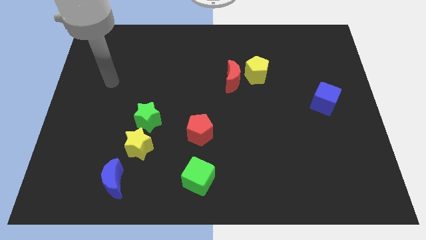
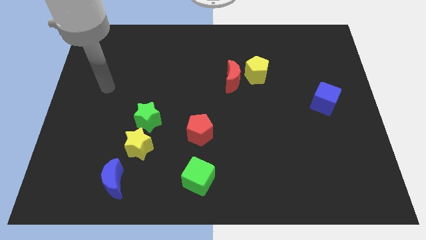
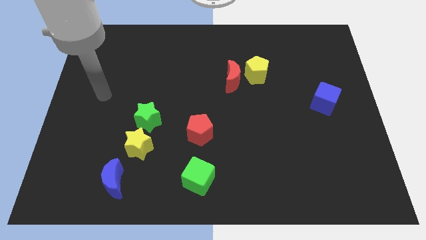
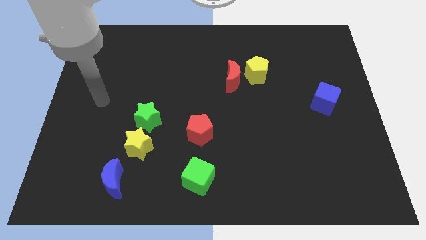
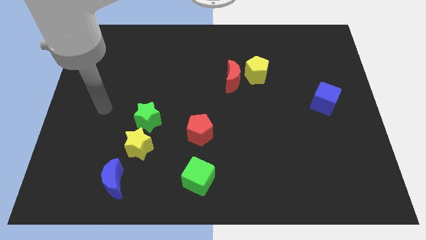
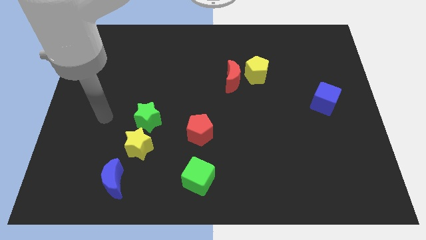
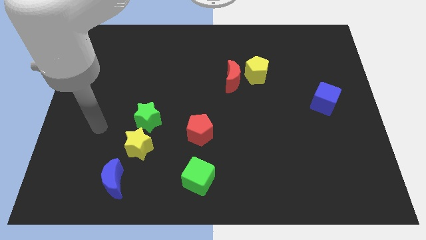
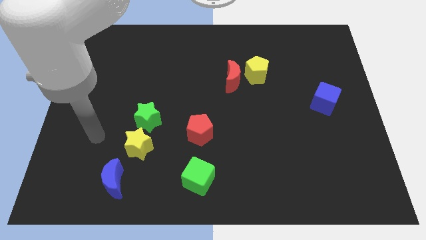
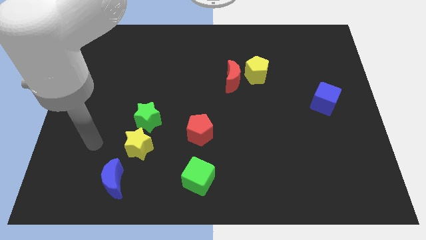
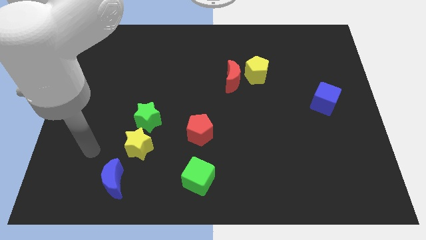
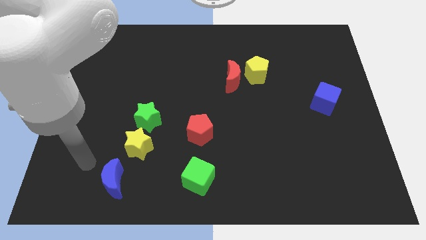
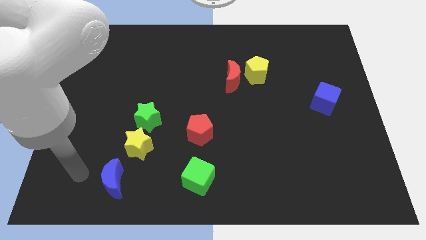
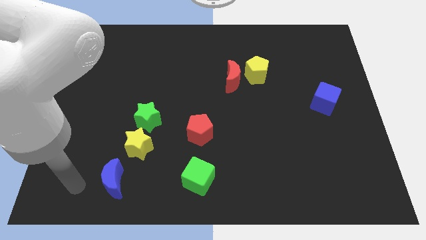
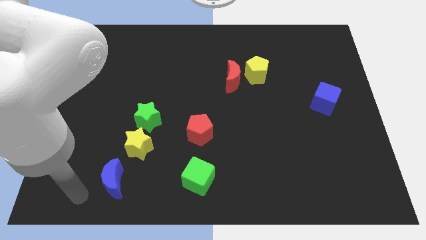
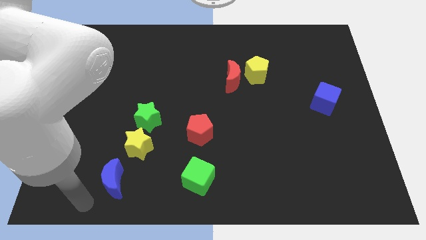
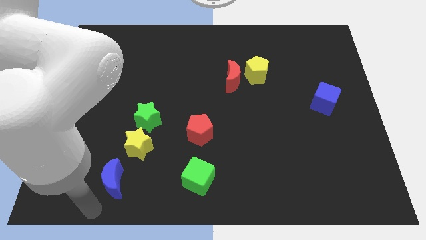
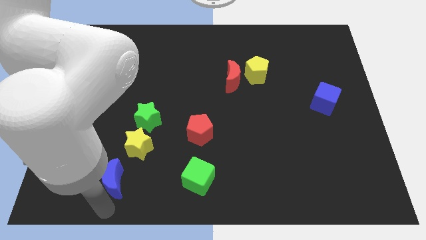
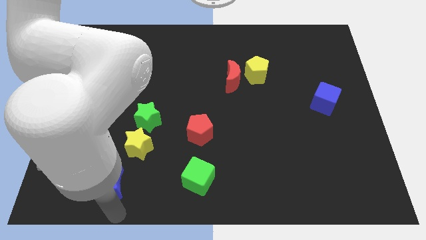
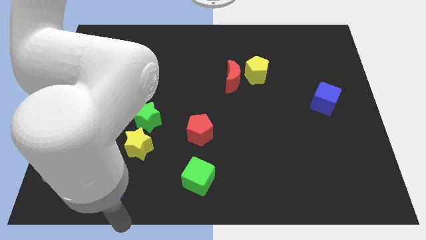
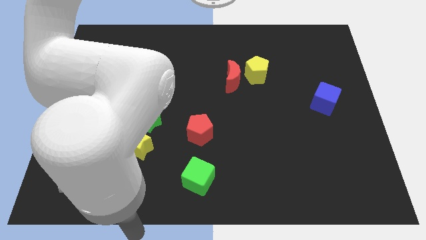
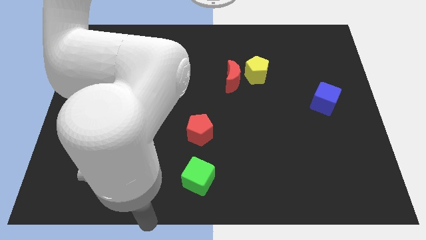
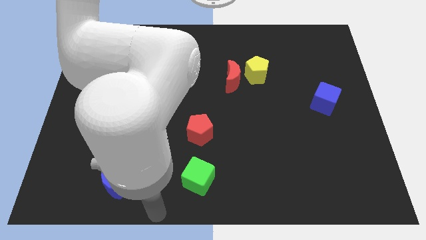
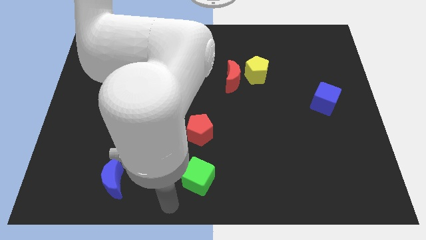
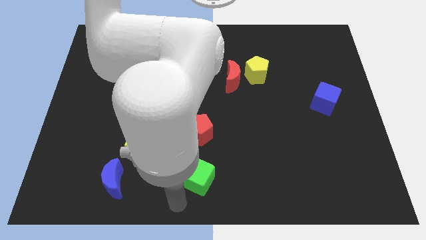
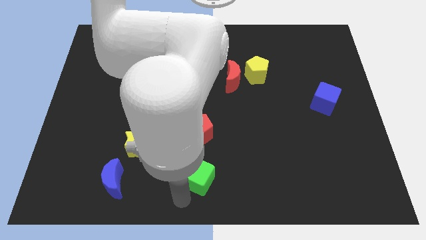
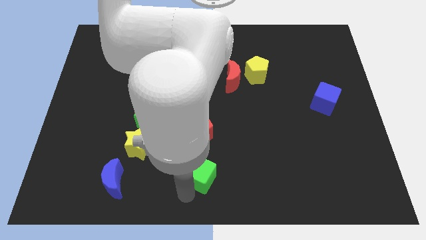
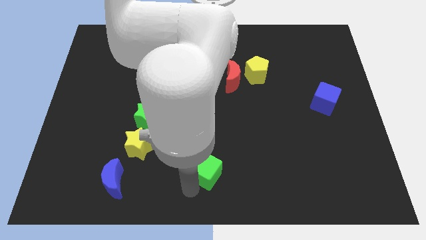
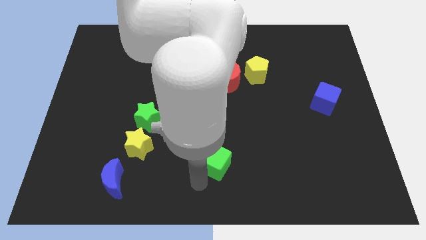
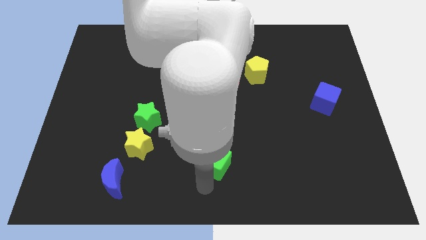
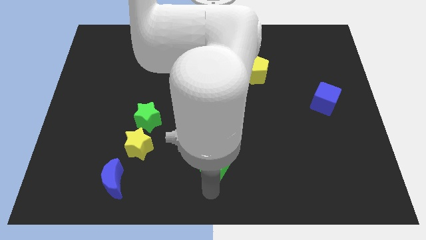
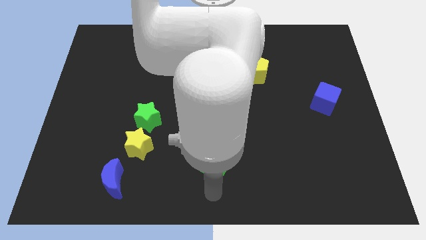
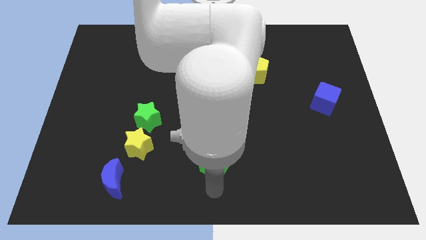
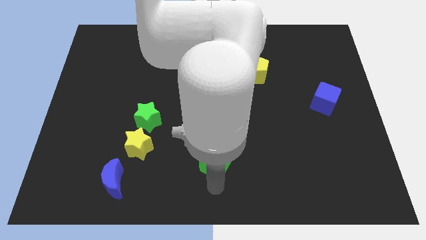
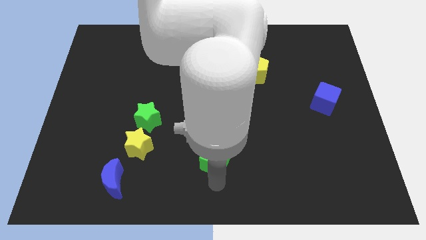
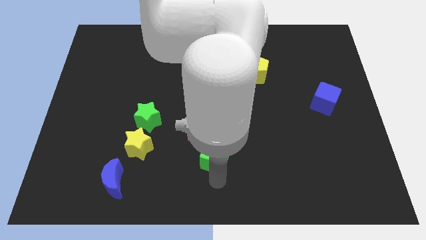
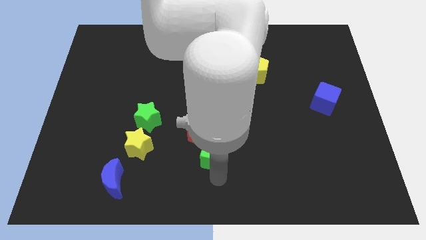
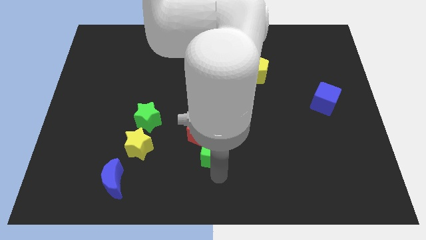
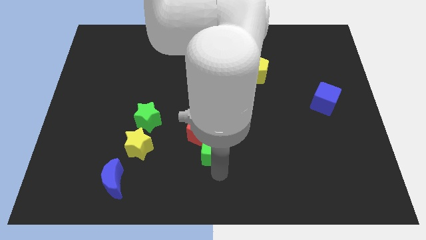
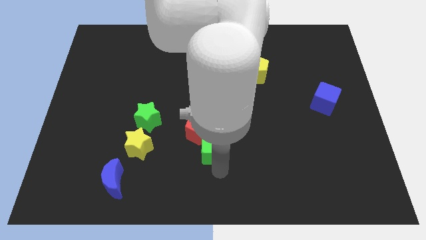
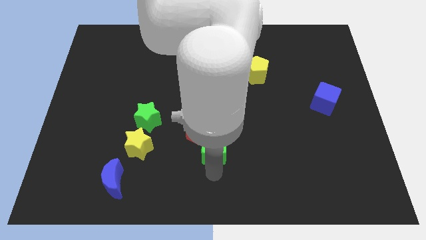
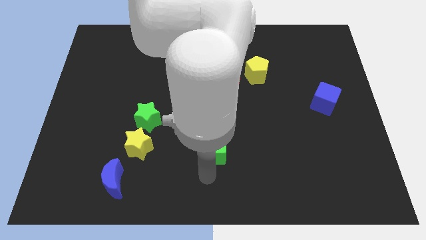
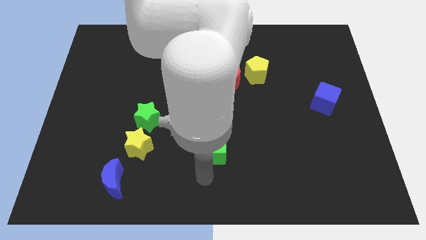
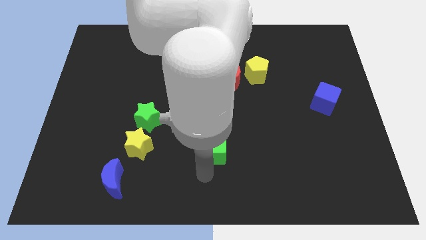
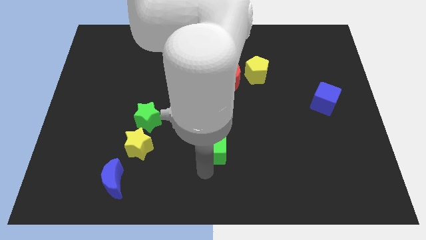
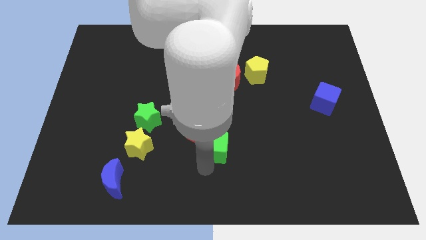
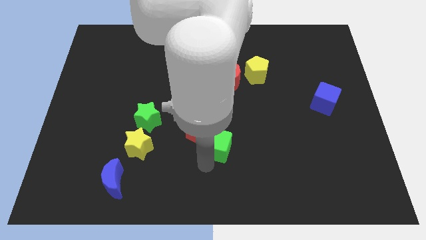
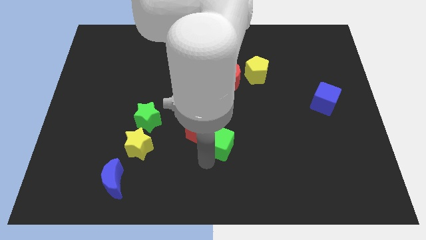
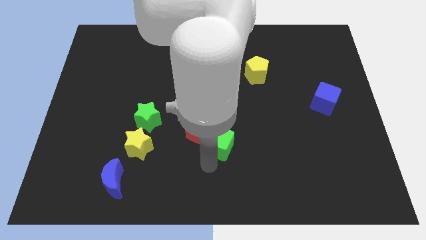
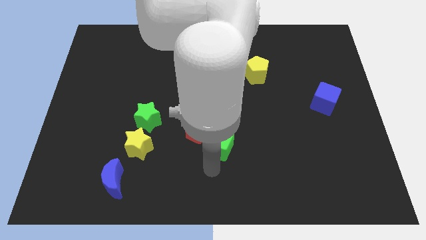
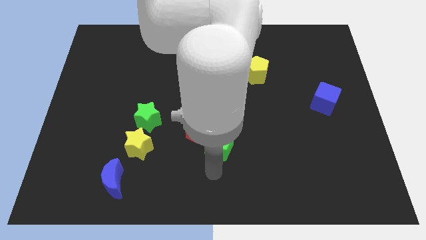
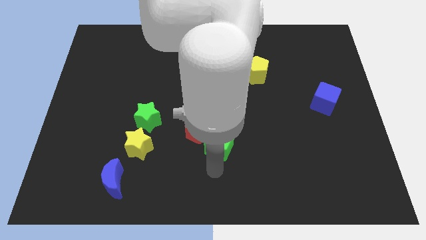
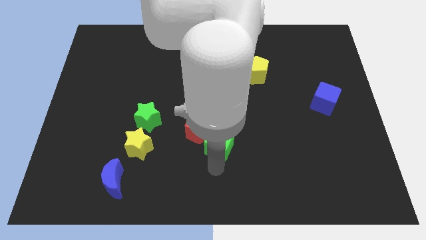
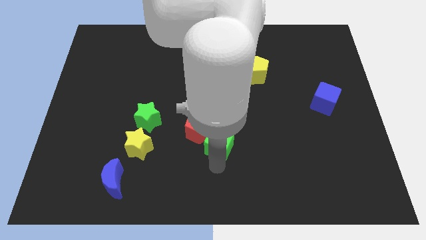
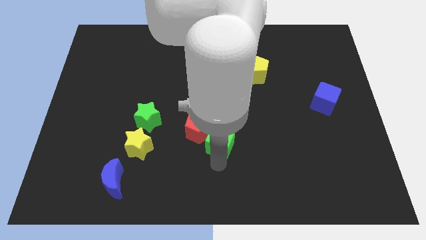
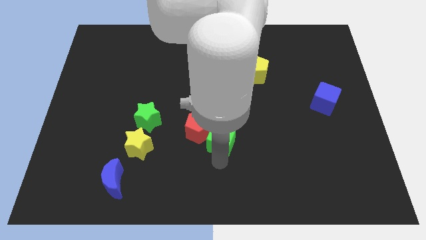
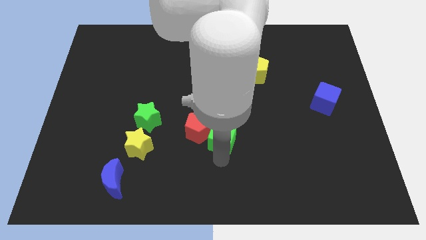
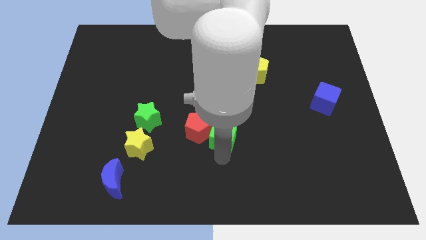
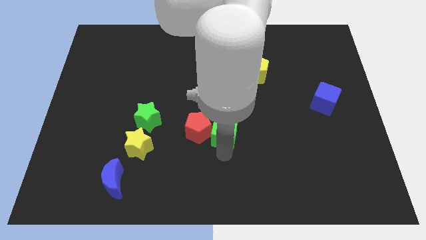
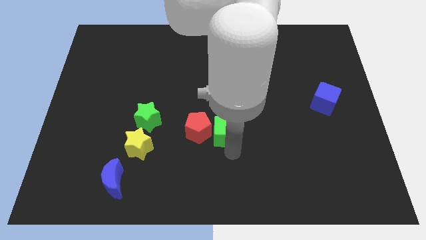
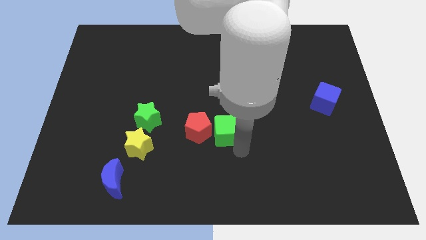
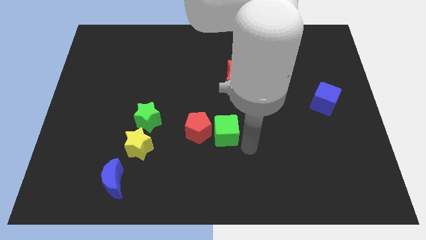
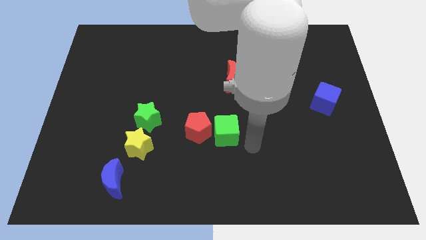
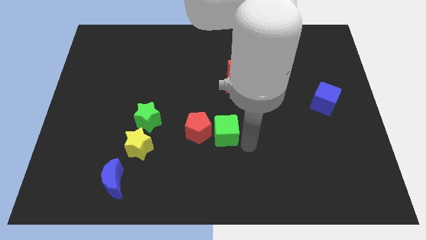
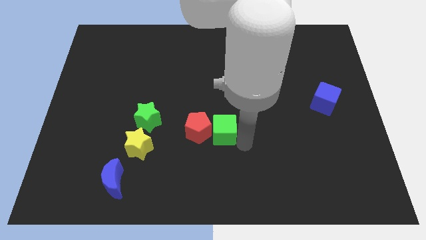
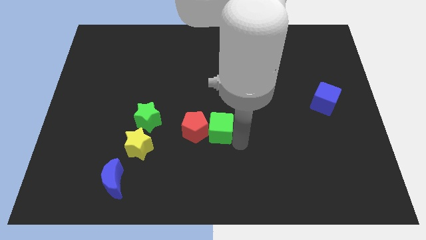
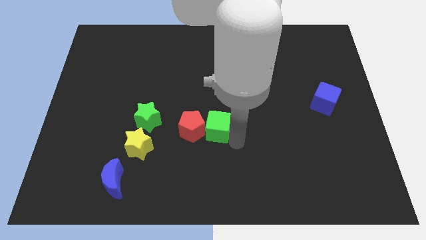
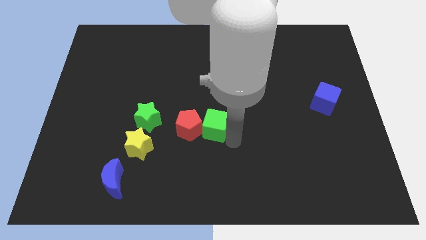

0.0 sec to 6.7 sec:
move the green cube to the right of the green star
